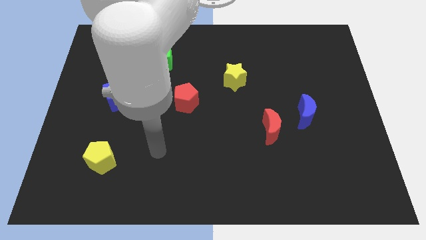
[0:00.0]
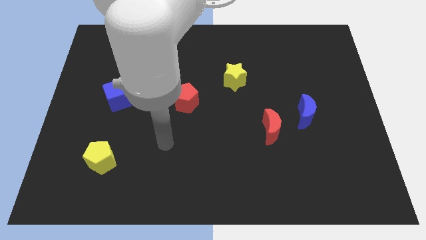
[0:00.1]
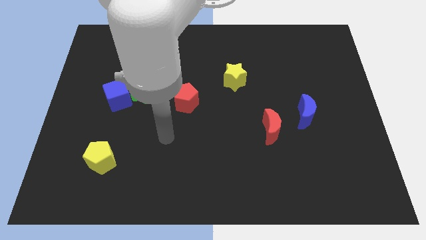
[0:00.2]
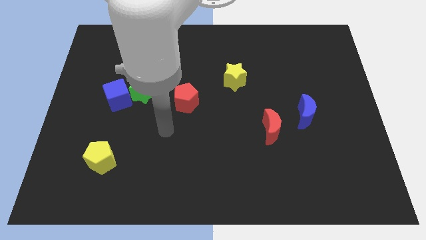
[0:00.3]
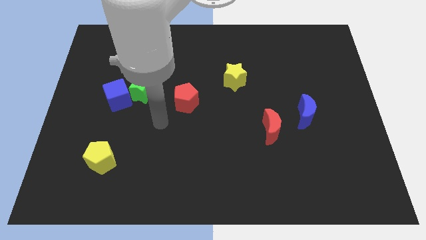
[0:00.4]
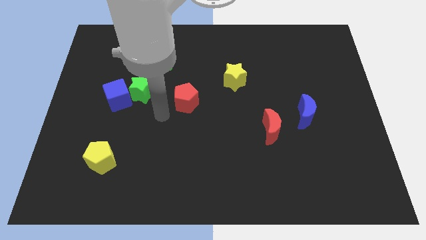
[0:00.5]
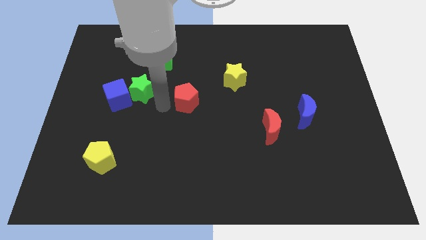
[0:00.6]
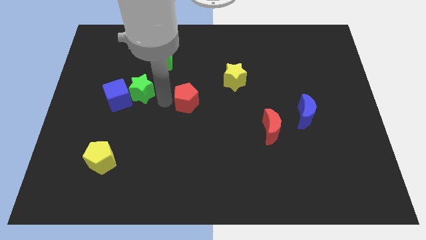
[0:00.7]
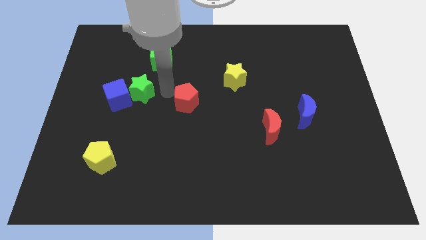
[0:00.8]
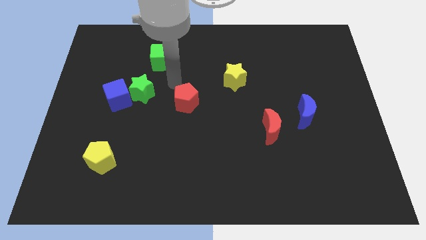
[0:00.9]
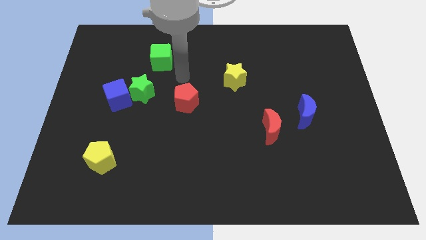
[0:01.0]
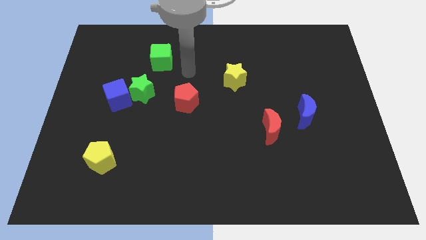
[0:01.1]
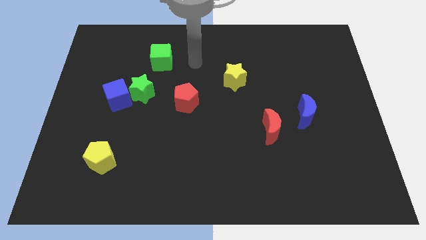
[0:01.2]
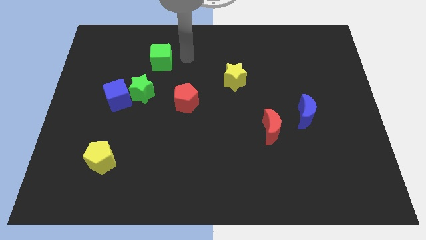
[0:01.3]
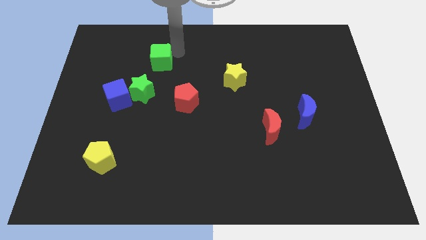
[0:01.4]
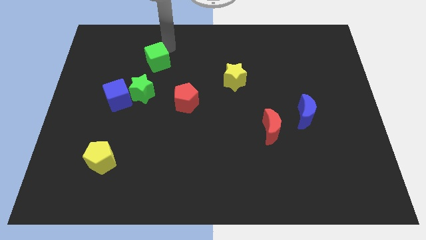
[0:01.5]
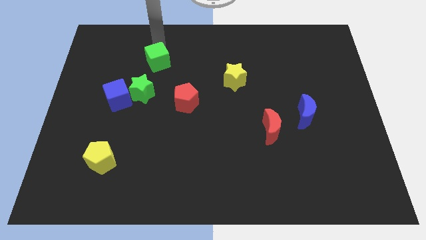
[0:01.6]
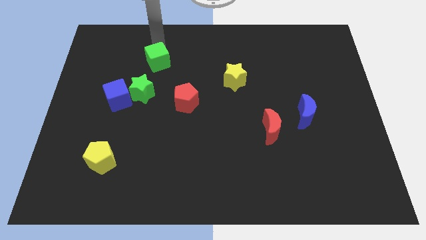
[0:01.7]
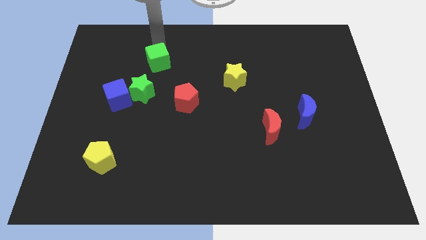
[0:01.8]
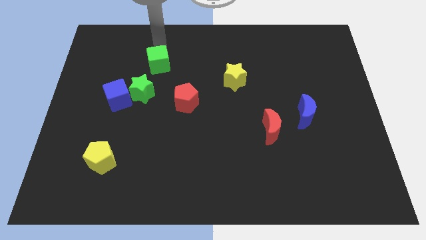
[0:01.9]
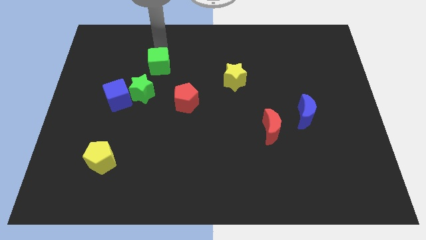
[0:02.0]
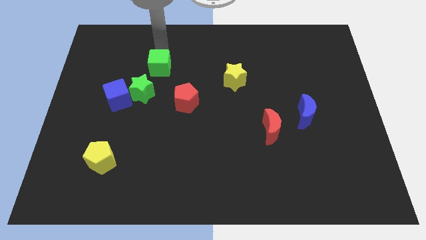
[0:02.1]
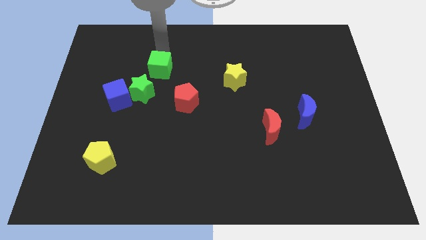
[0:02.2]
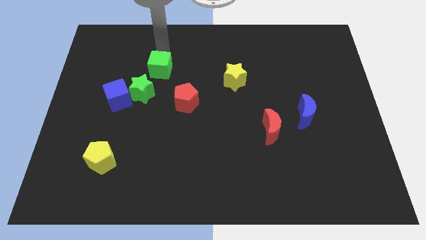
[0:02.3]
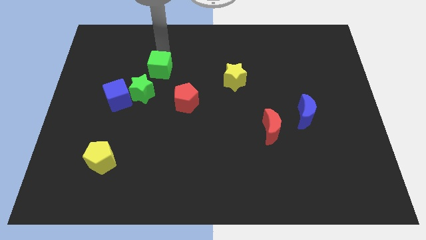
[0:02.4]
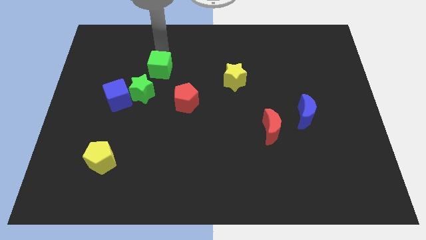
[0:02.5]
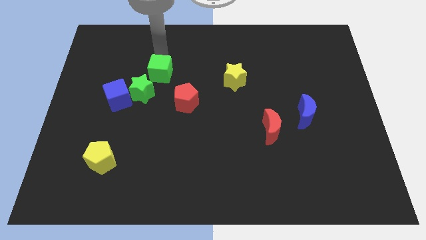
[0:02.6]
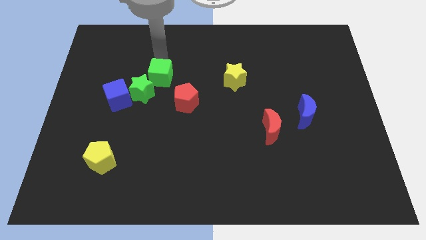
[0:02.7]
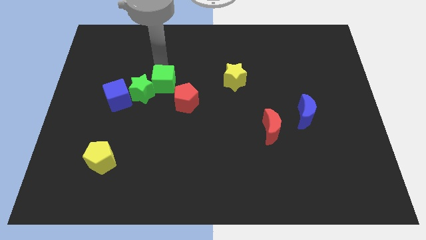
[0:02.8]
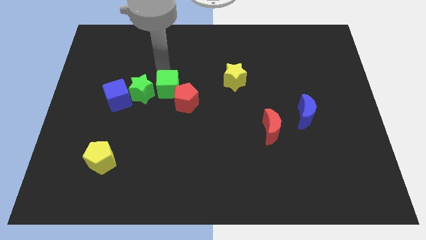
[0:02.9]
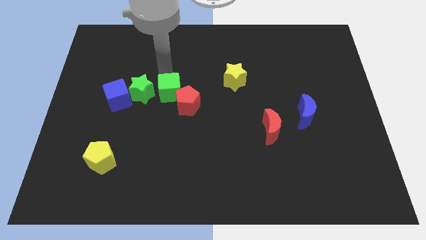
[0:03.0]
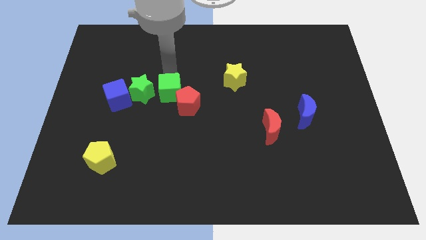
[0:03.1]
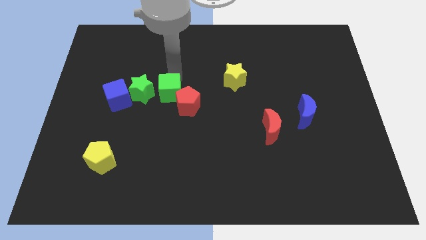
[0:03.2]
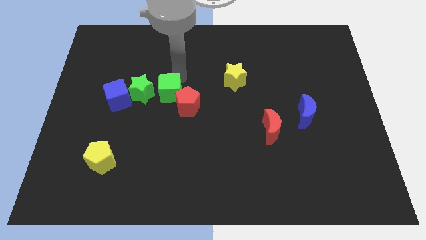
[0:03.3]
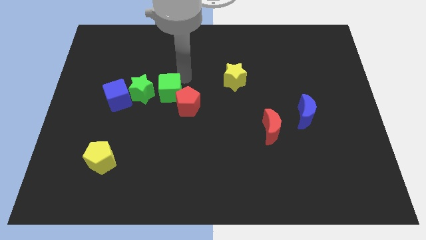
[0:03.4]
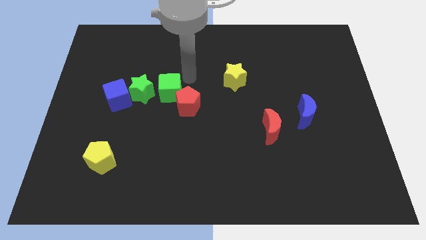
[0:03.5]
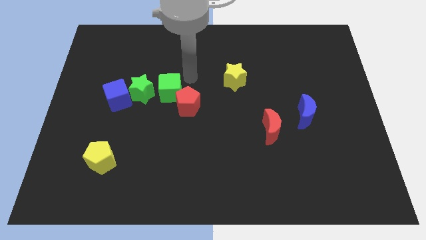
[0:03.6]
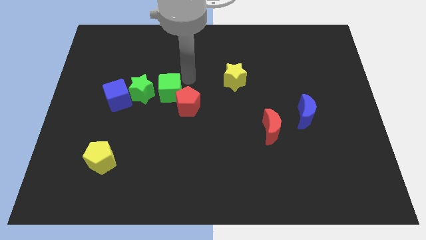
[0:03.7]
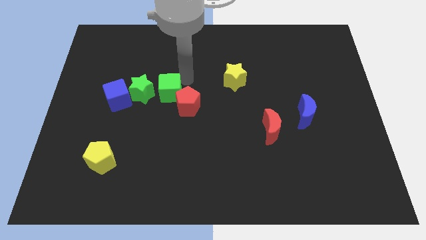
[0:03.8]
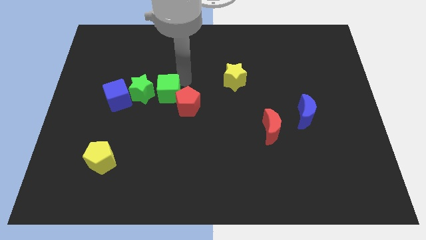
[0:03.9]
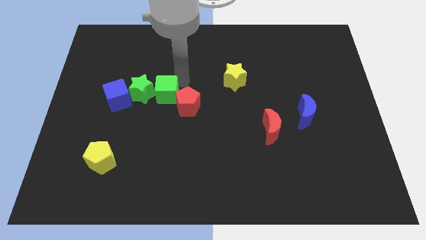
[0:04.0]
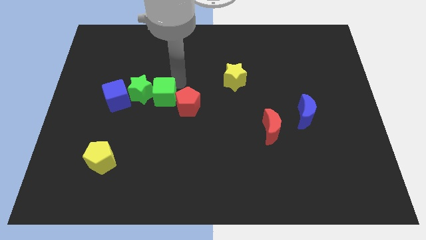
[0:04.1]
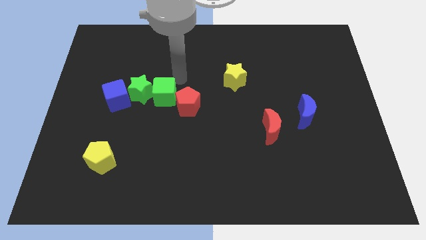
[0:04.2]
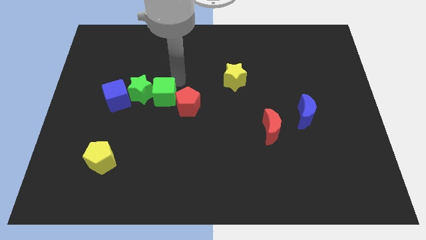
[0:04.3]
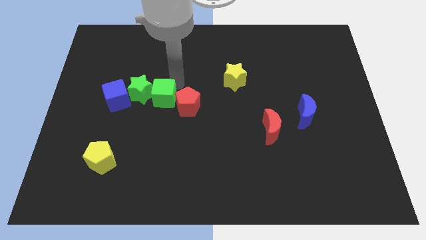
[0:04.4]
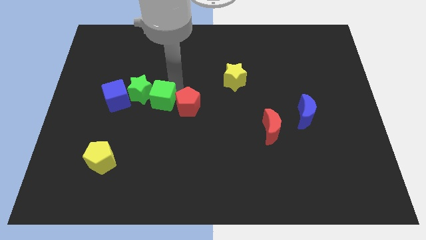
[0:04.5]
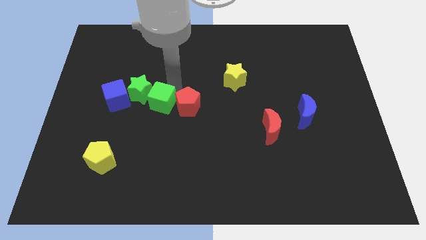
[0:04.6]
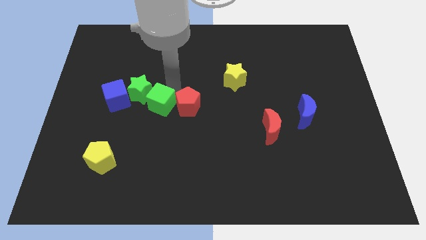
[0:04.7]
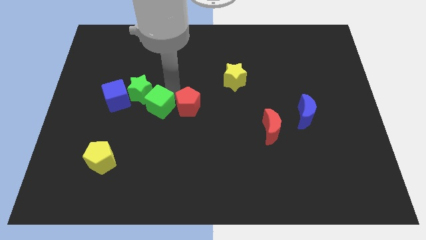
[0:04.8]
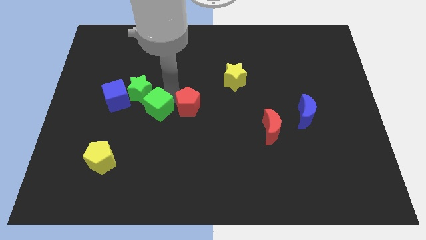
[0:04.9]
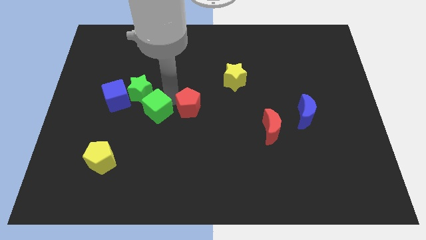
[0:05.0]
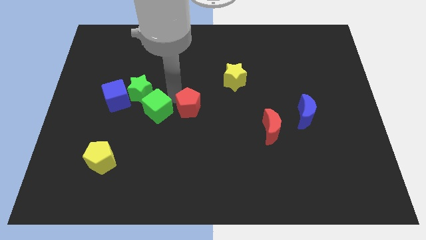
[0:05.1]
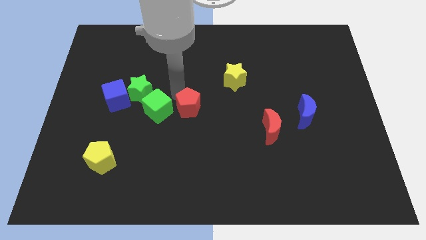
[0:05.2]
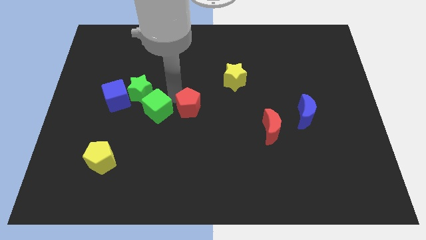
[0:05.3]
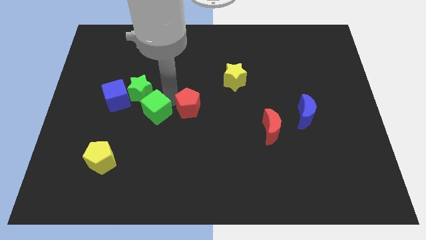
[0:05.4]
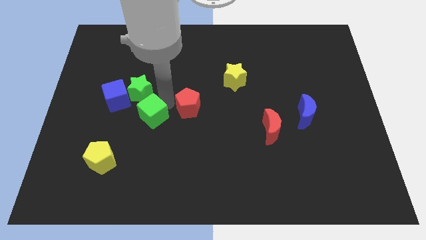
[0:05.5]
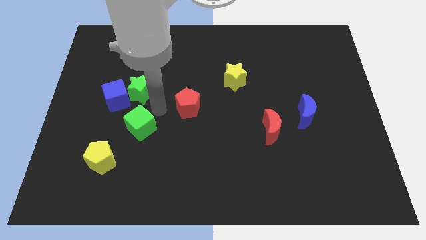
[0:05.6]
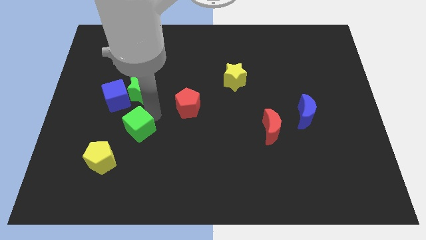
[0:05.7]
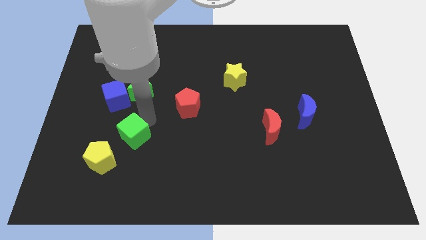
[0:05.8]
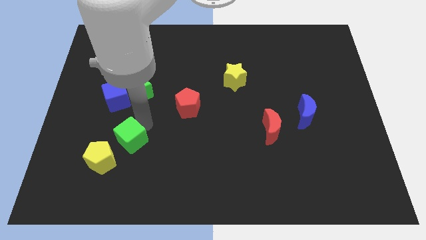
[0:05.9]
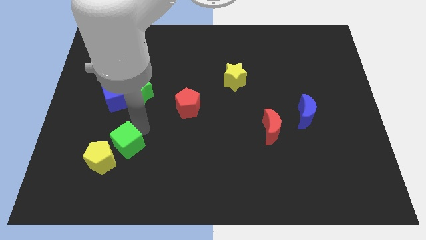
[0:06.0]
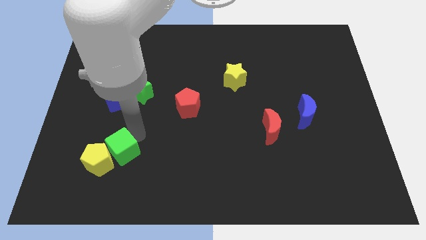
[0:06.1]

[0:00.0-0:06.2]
slide the green cube next to the yellow pentagon
